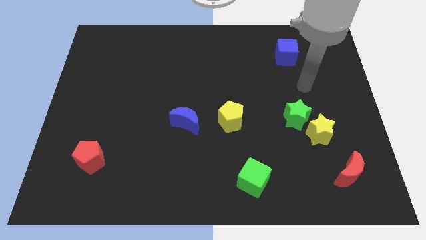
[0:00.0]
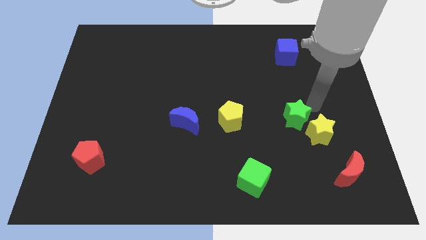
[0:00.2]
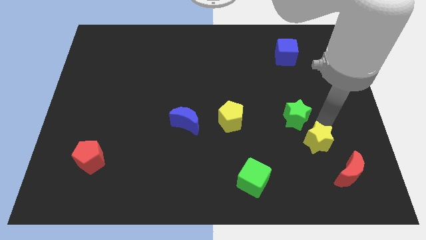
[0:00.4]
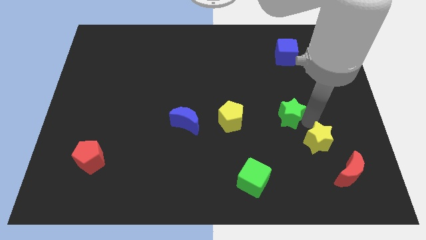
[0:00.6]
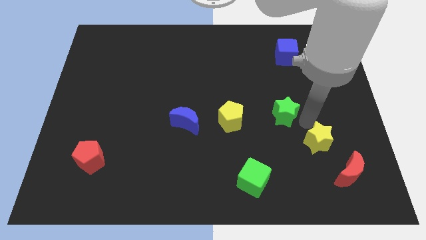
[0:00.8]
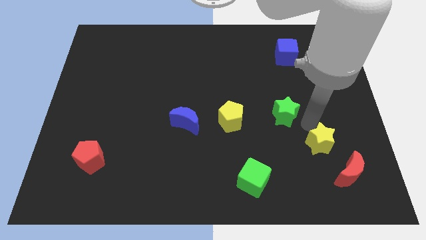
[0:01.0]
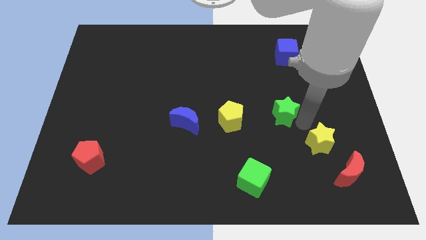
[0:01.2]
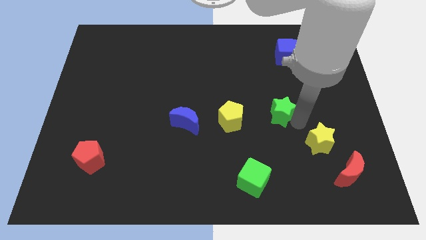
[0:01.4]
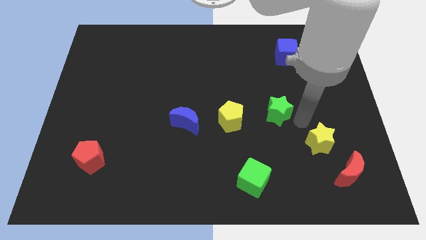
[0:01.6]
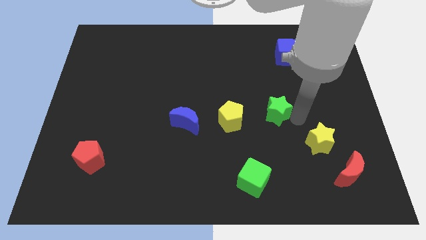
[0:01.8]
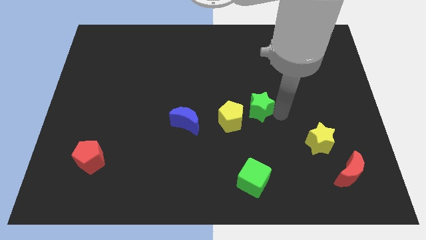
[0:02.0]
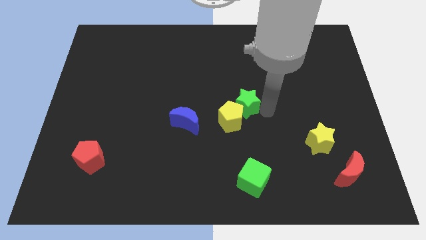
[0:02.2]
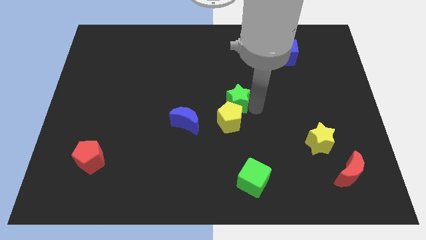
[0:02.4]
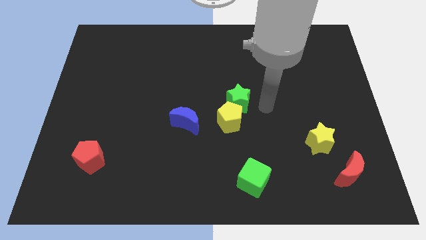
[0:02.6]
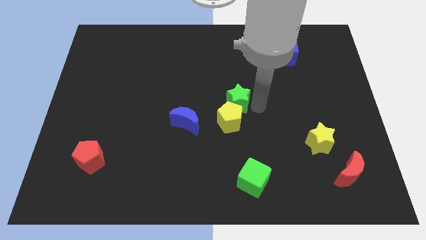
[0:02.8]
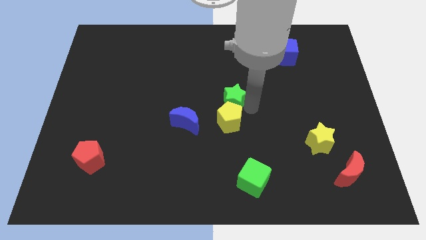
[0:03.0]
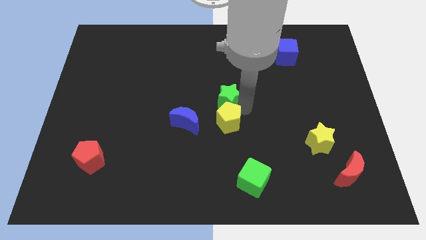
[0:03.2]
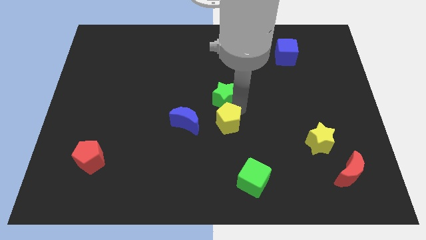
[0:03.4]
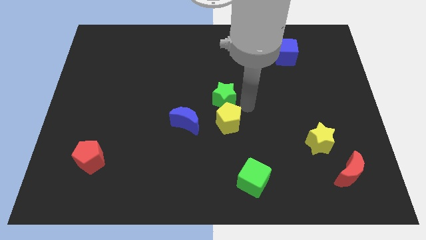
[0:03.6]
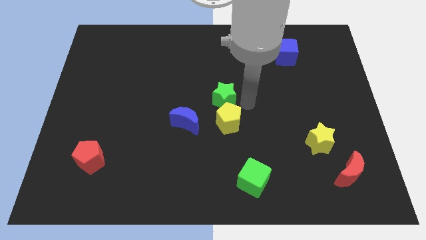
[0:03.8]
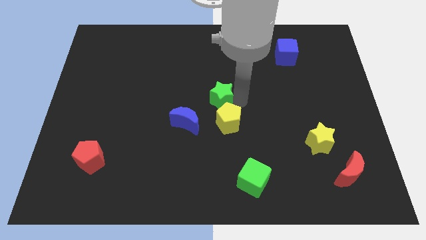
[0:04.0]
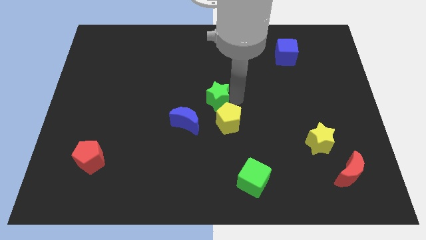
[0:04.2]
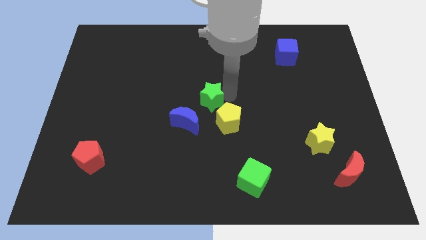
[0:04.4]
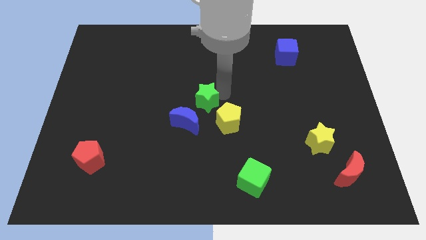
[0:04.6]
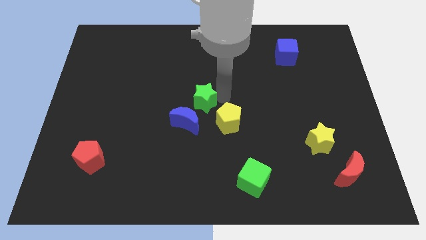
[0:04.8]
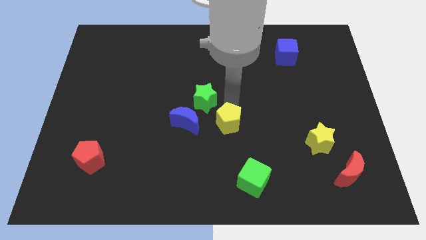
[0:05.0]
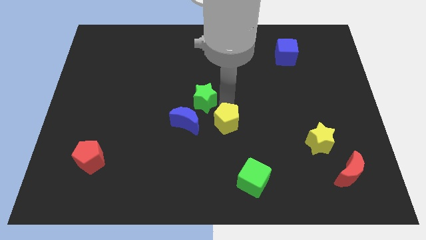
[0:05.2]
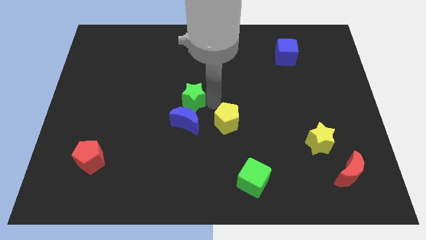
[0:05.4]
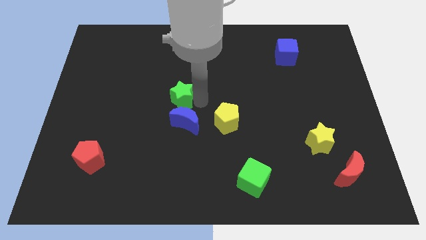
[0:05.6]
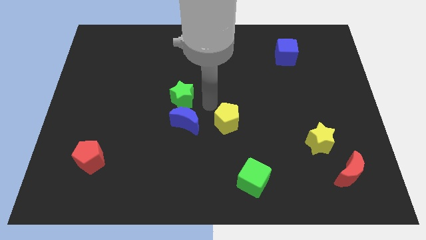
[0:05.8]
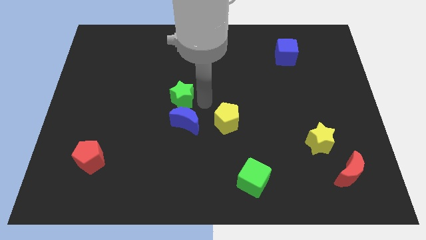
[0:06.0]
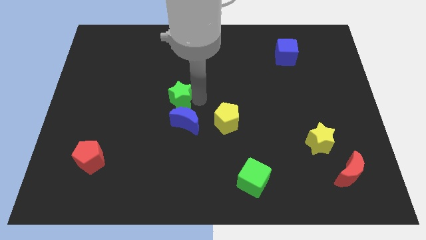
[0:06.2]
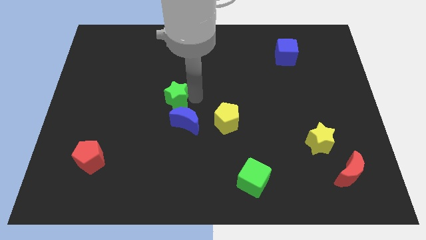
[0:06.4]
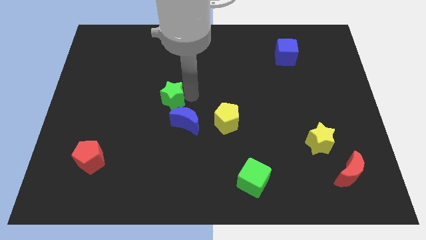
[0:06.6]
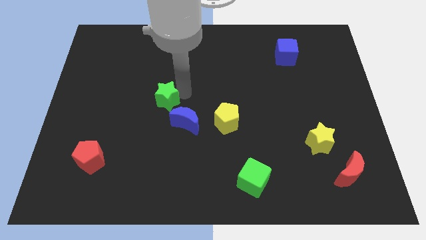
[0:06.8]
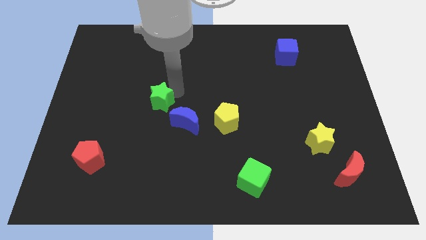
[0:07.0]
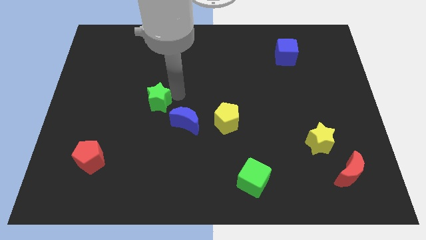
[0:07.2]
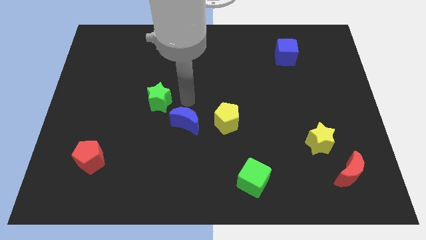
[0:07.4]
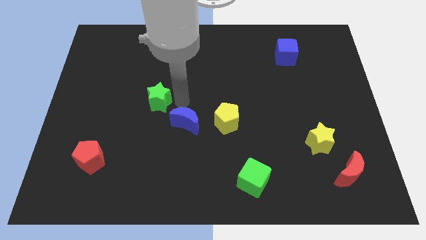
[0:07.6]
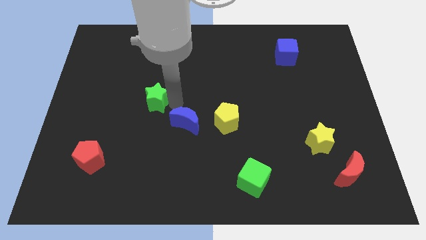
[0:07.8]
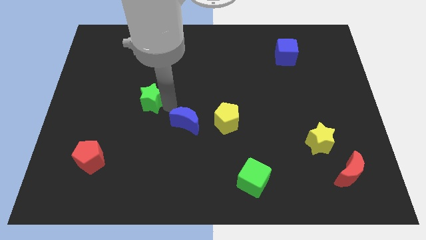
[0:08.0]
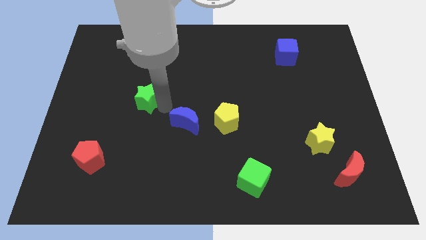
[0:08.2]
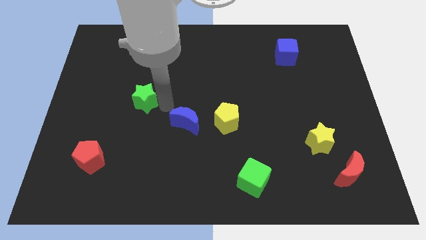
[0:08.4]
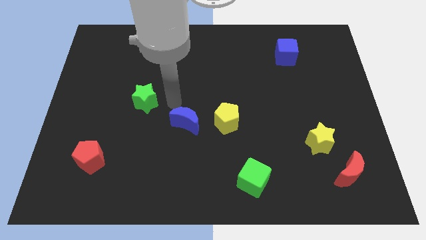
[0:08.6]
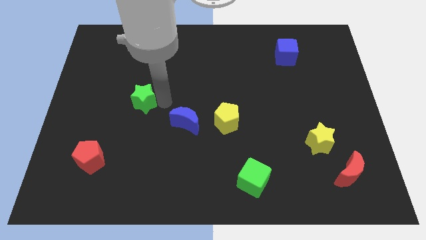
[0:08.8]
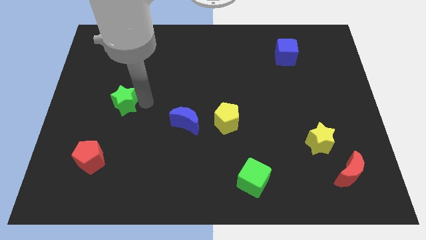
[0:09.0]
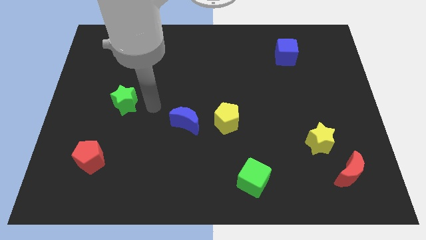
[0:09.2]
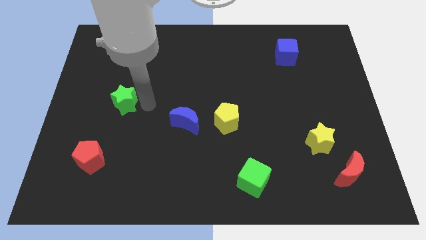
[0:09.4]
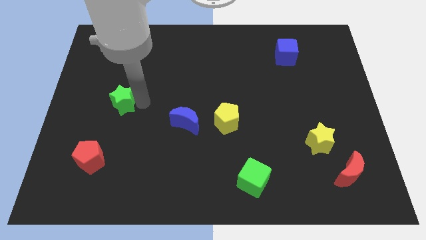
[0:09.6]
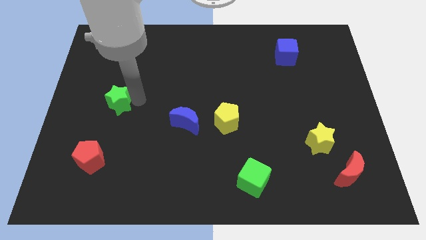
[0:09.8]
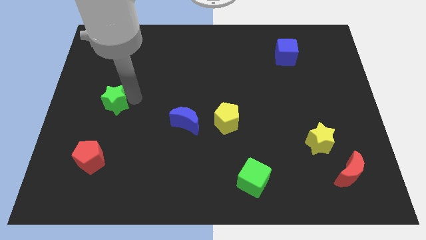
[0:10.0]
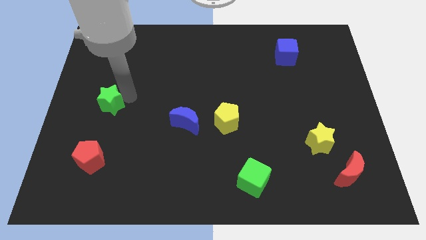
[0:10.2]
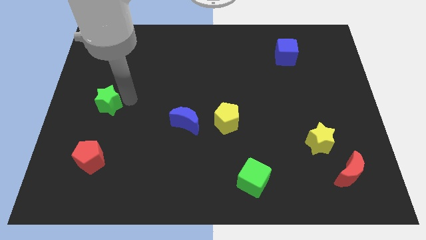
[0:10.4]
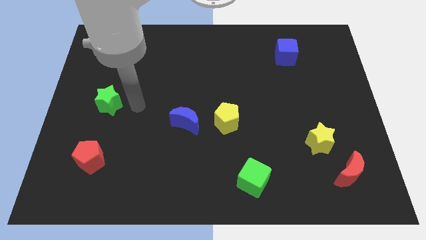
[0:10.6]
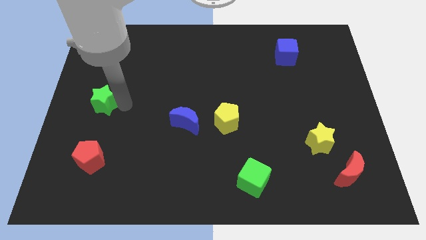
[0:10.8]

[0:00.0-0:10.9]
push the green star to the left side
